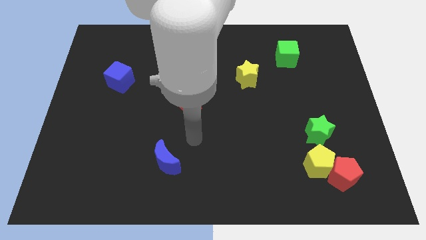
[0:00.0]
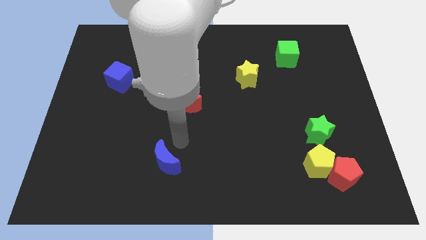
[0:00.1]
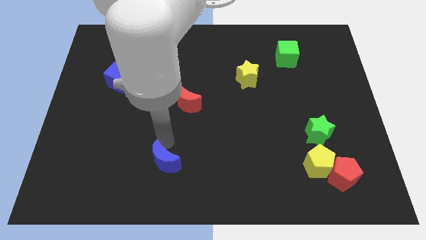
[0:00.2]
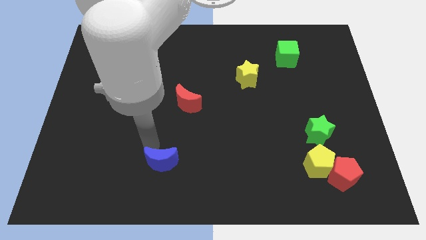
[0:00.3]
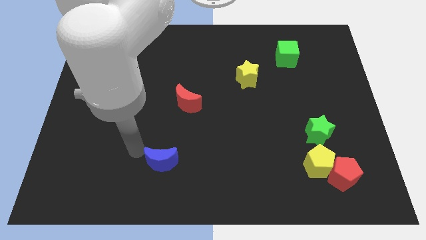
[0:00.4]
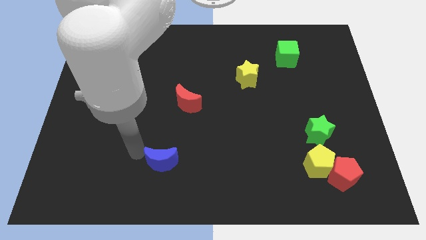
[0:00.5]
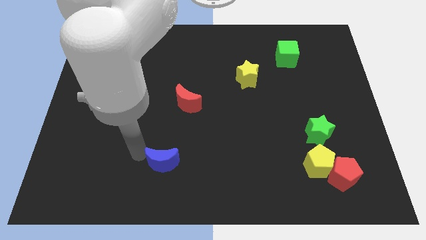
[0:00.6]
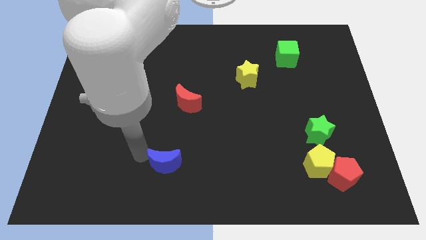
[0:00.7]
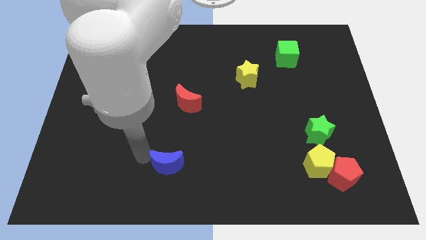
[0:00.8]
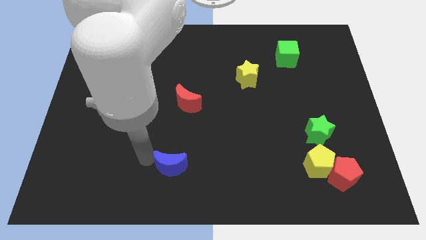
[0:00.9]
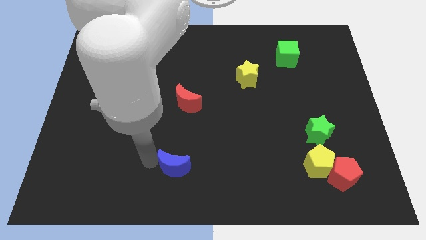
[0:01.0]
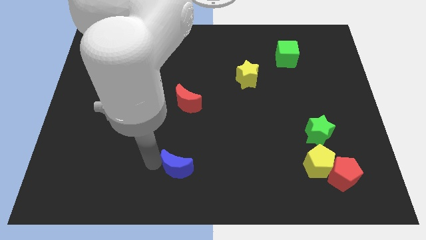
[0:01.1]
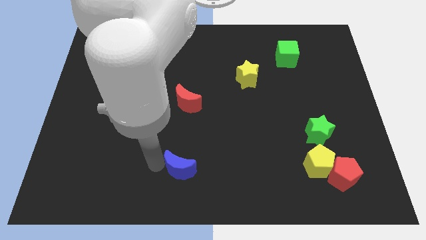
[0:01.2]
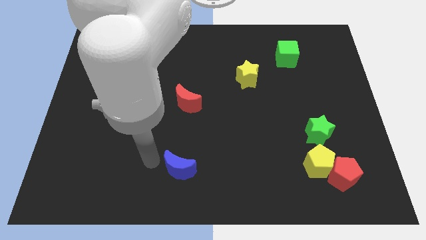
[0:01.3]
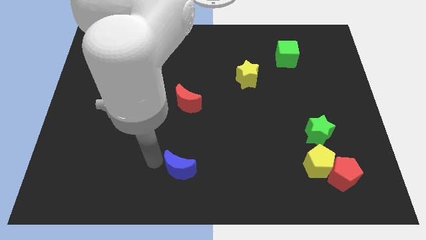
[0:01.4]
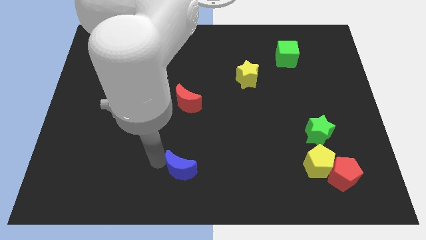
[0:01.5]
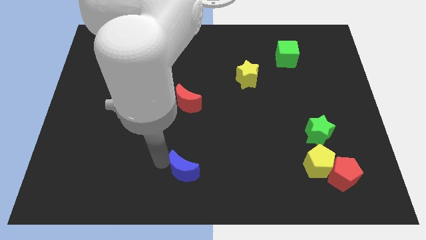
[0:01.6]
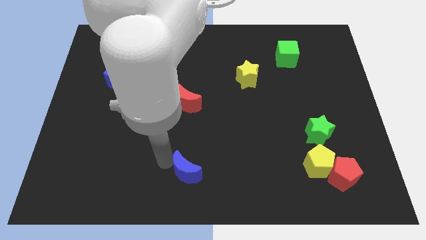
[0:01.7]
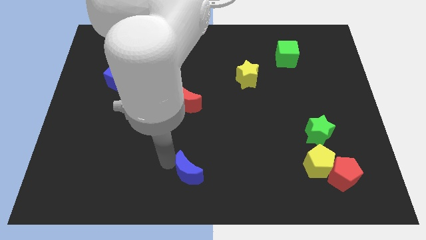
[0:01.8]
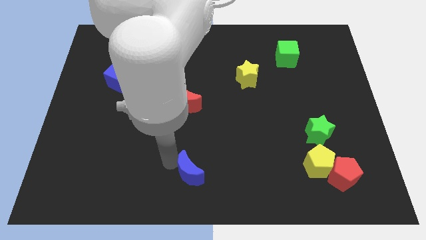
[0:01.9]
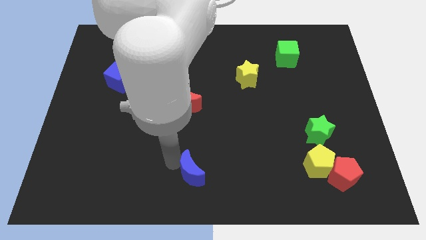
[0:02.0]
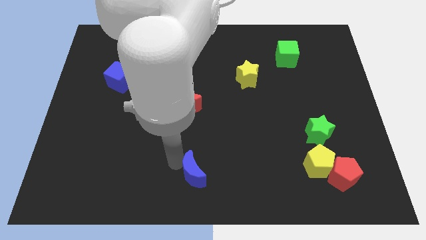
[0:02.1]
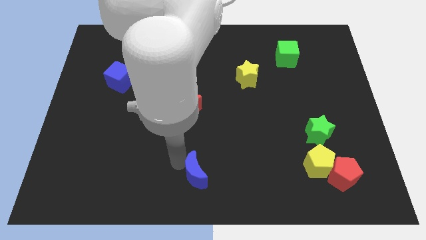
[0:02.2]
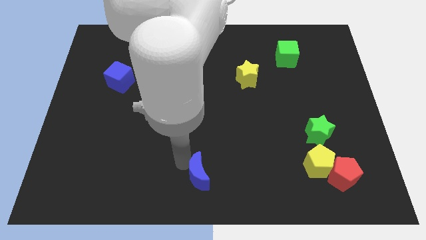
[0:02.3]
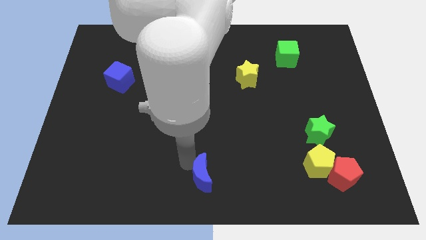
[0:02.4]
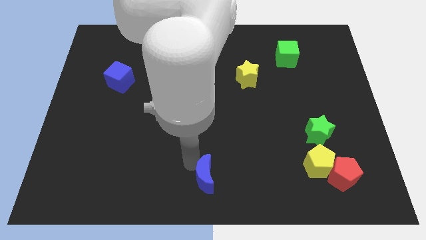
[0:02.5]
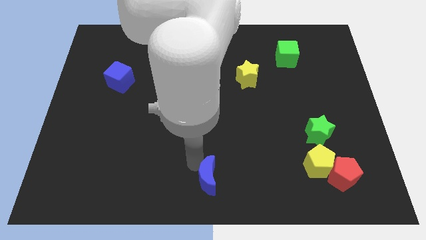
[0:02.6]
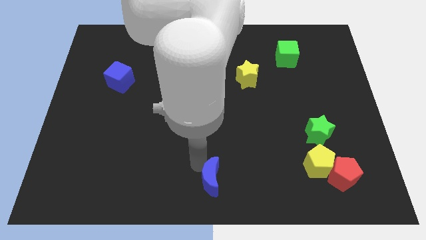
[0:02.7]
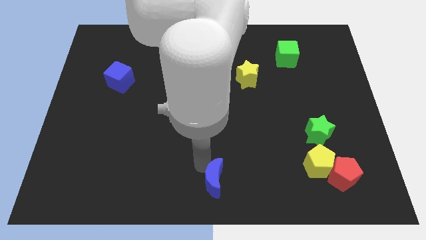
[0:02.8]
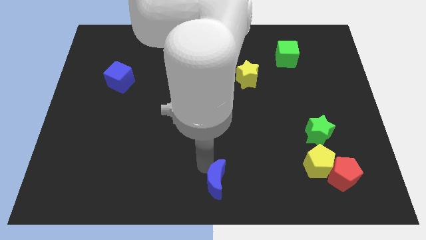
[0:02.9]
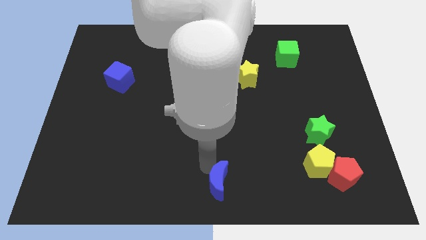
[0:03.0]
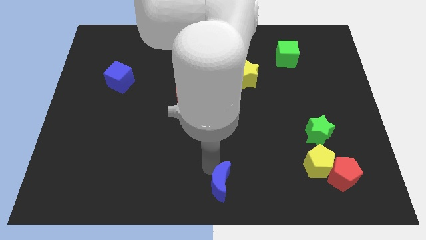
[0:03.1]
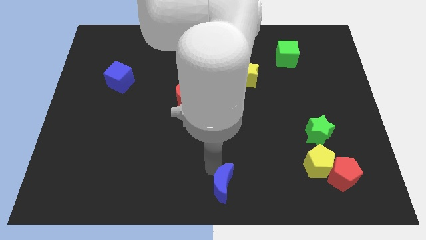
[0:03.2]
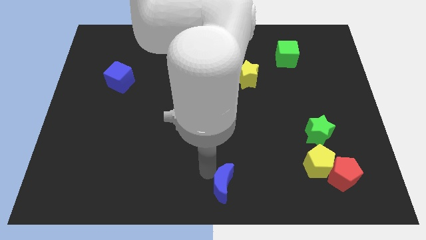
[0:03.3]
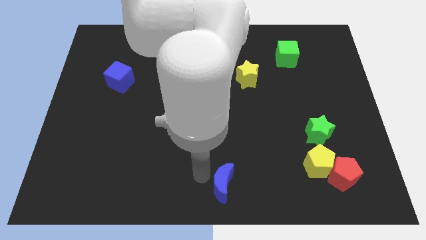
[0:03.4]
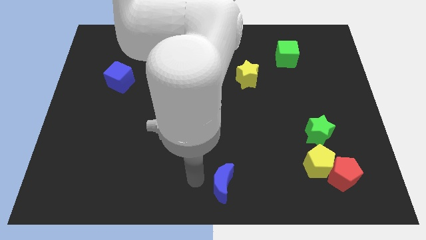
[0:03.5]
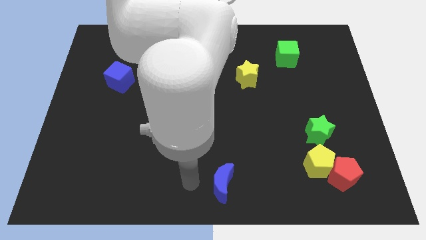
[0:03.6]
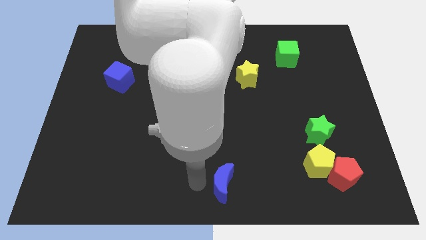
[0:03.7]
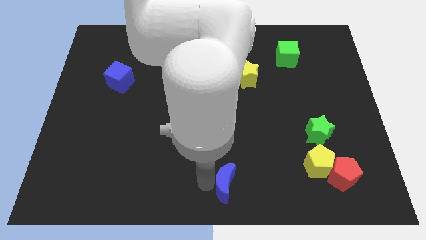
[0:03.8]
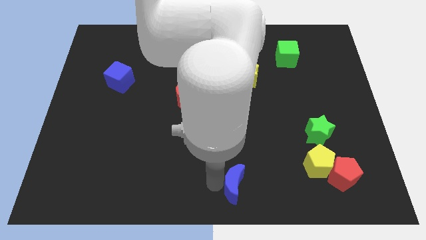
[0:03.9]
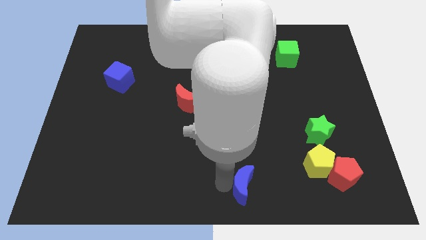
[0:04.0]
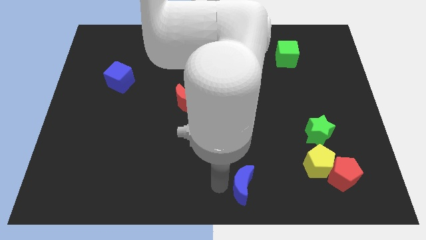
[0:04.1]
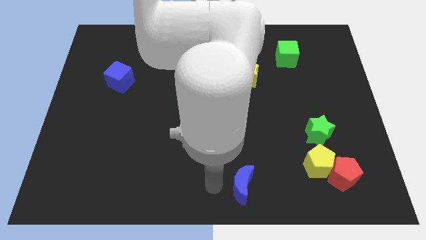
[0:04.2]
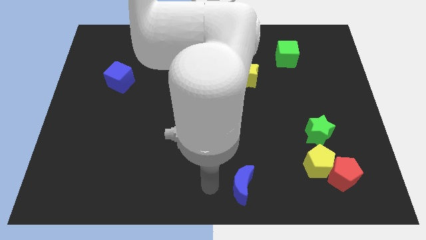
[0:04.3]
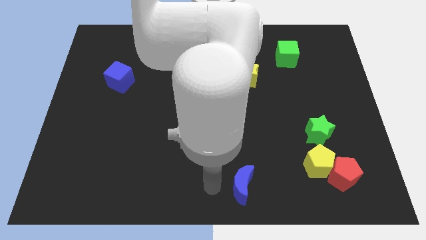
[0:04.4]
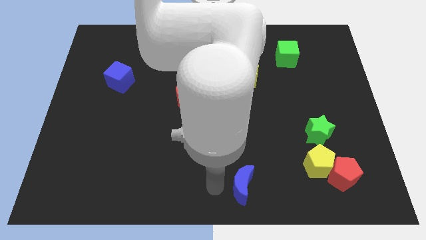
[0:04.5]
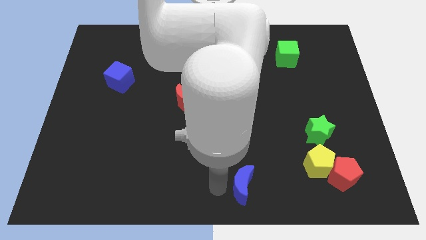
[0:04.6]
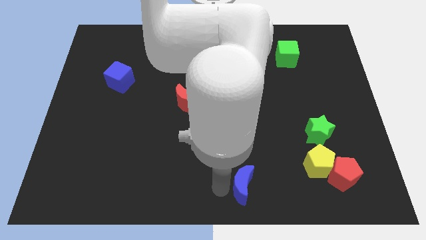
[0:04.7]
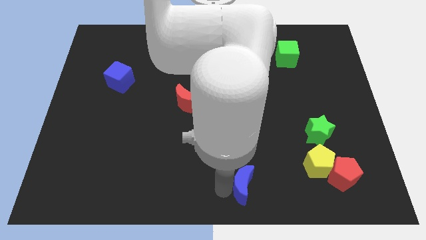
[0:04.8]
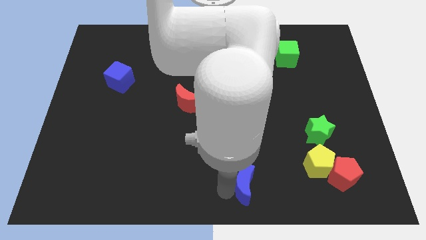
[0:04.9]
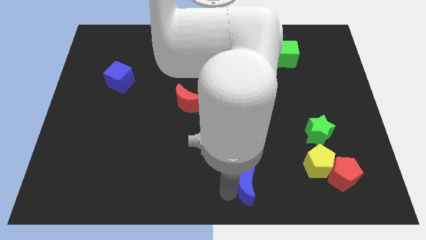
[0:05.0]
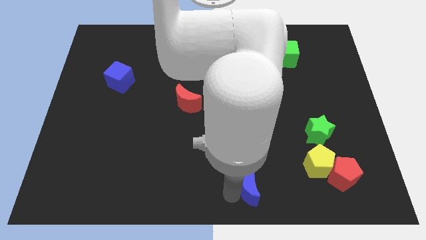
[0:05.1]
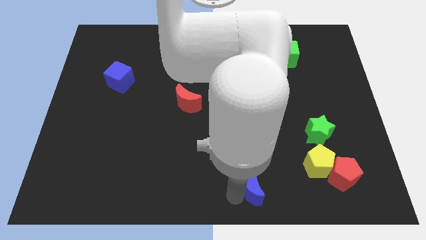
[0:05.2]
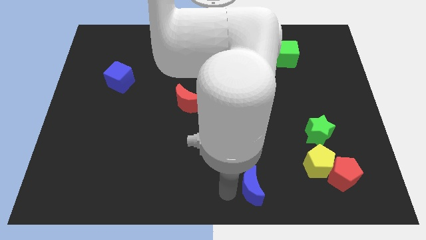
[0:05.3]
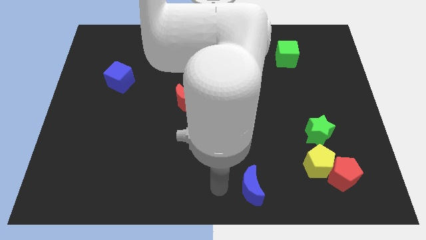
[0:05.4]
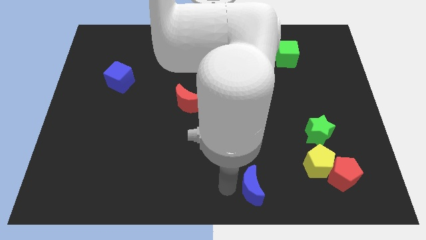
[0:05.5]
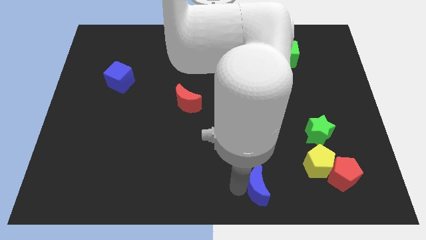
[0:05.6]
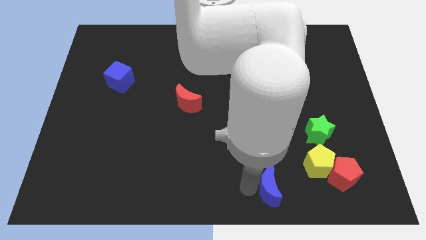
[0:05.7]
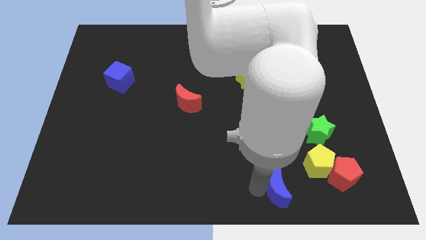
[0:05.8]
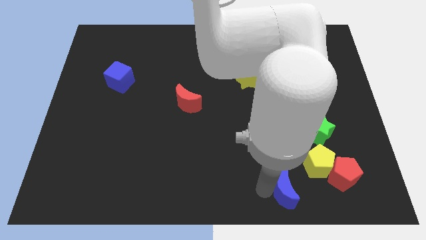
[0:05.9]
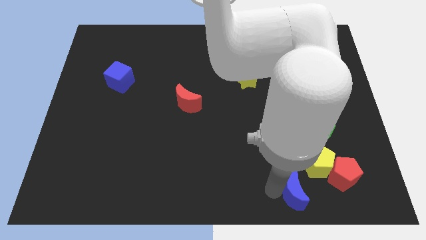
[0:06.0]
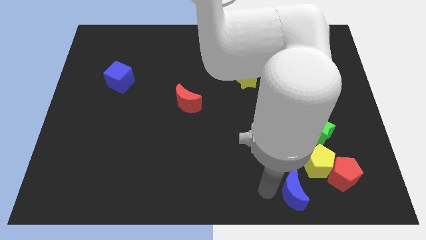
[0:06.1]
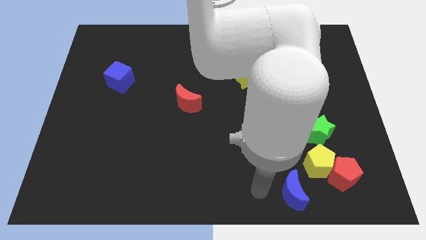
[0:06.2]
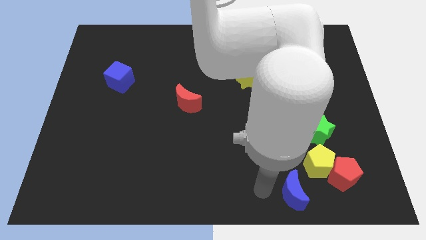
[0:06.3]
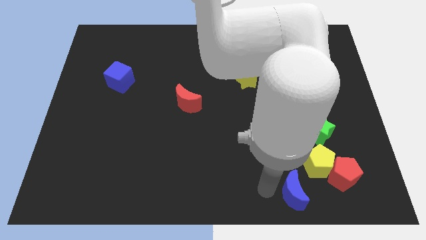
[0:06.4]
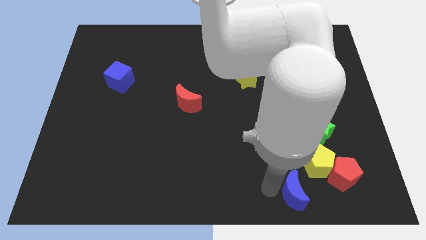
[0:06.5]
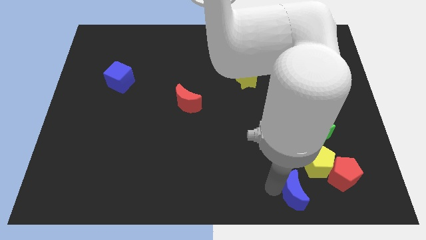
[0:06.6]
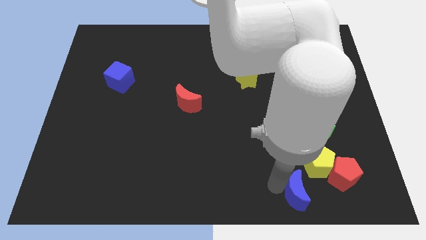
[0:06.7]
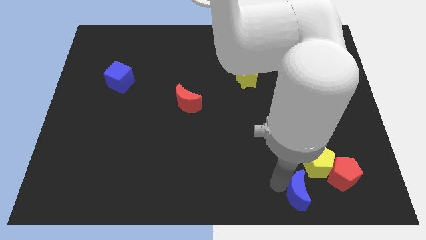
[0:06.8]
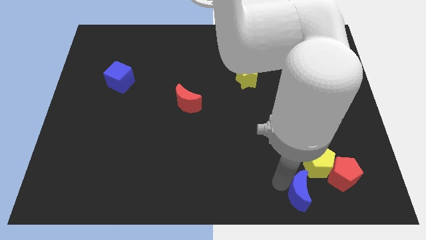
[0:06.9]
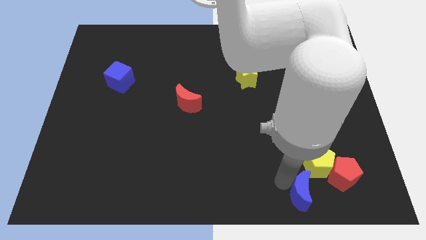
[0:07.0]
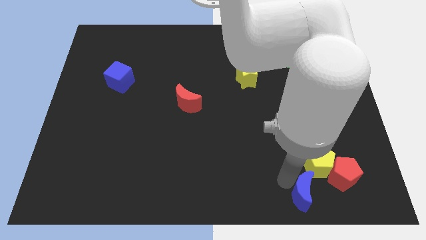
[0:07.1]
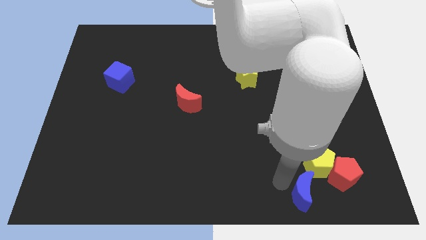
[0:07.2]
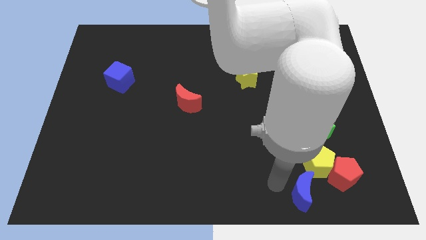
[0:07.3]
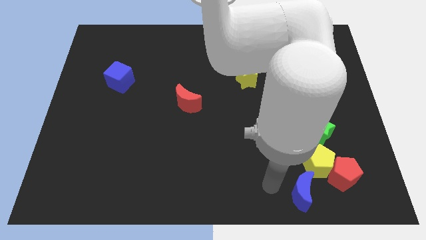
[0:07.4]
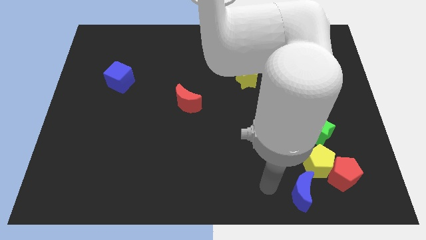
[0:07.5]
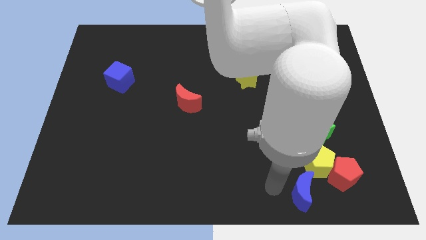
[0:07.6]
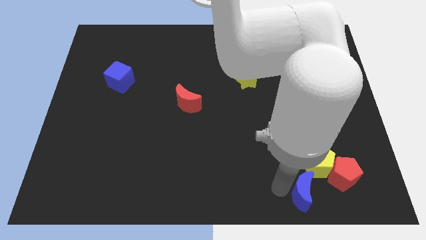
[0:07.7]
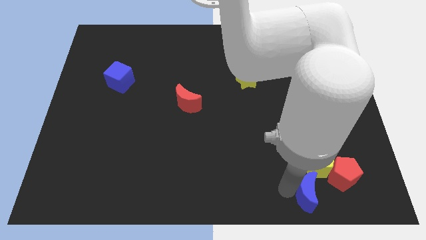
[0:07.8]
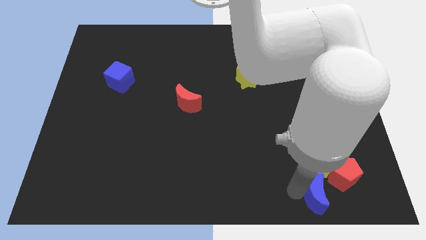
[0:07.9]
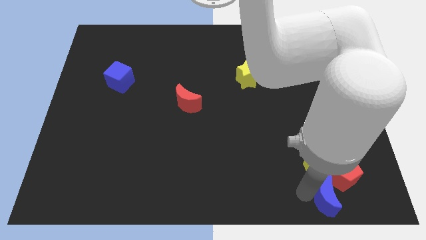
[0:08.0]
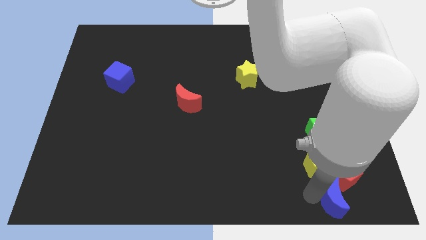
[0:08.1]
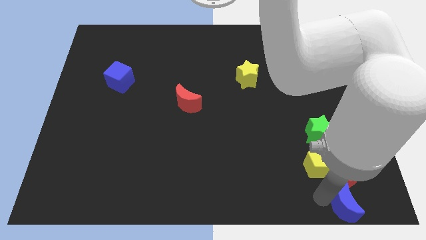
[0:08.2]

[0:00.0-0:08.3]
push the blue moon to the lower right corner
